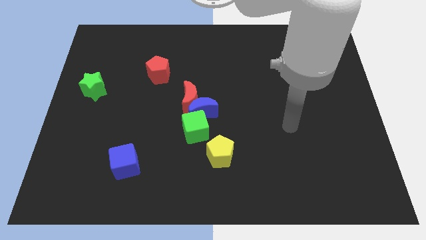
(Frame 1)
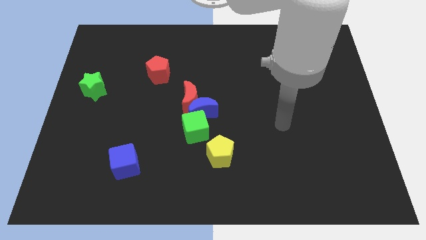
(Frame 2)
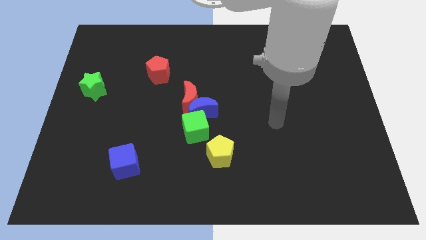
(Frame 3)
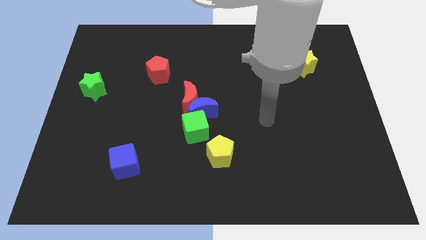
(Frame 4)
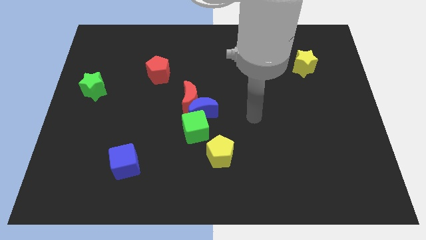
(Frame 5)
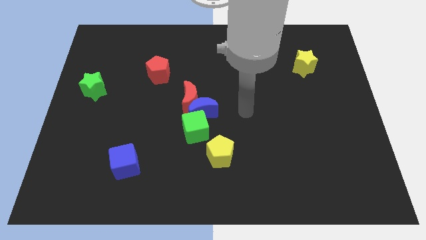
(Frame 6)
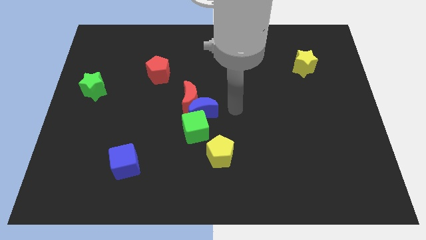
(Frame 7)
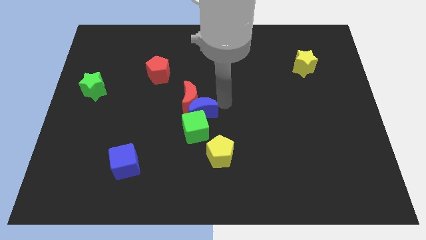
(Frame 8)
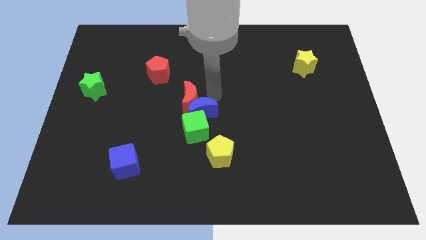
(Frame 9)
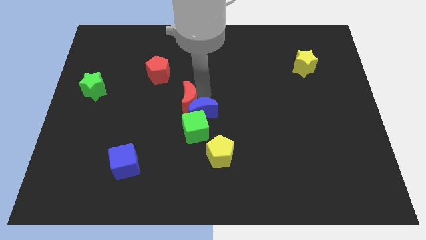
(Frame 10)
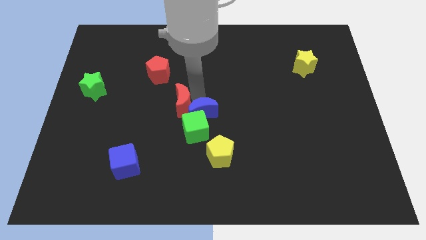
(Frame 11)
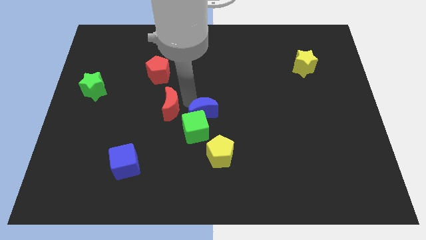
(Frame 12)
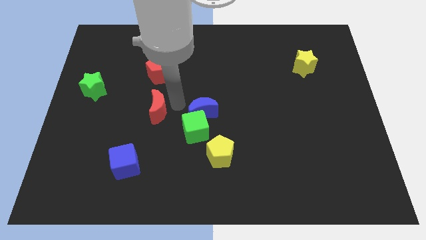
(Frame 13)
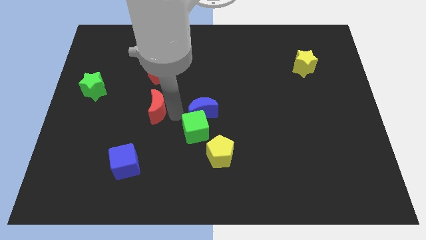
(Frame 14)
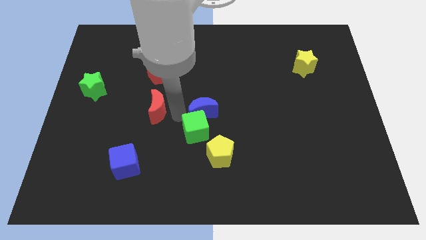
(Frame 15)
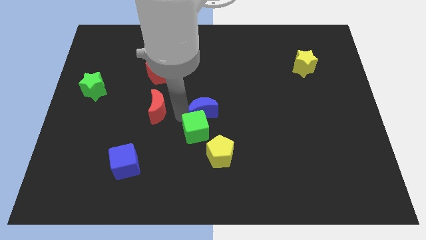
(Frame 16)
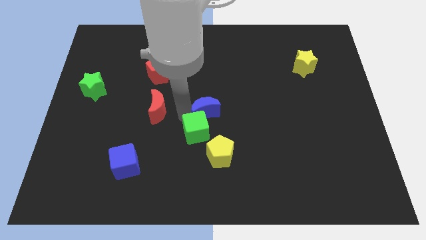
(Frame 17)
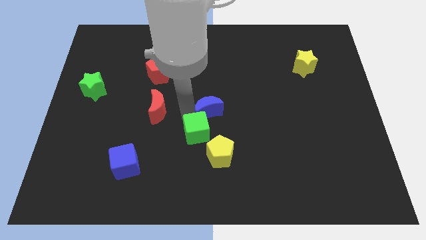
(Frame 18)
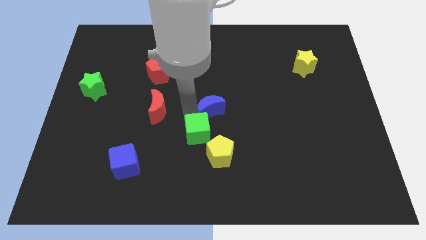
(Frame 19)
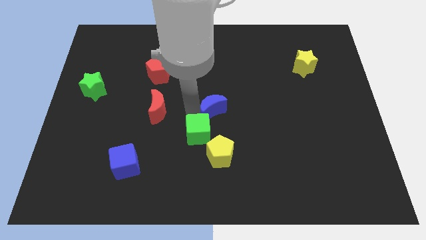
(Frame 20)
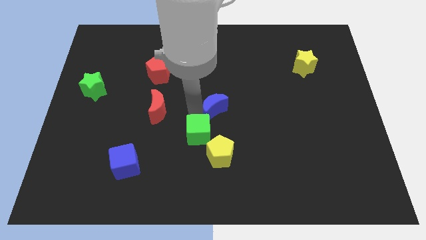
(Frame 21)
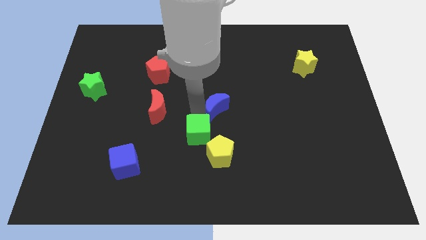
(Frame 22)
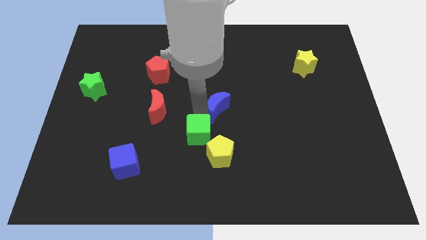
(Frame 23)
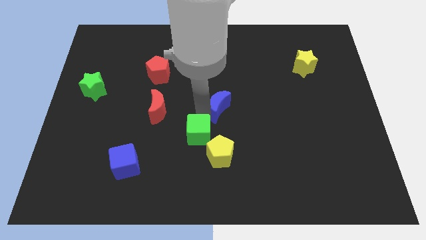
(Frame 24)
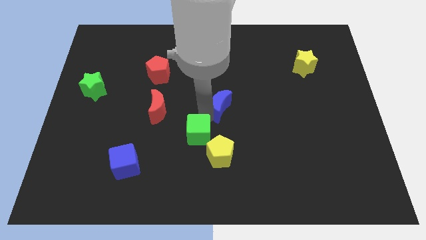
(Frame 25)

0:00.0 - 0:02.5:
pull the blue moon apart from the red moon and green cube

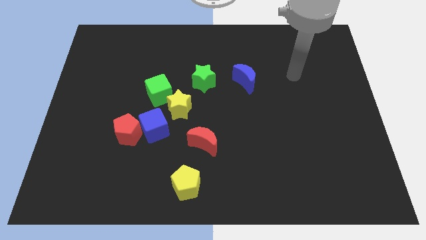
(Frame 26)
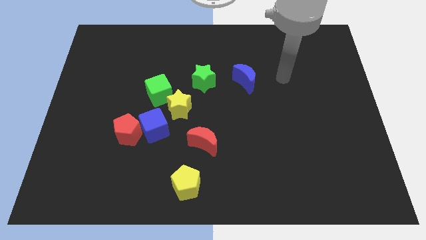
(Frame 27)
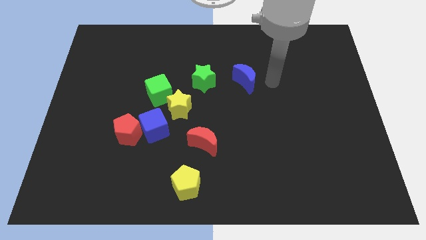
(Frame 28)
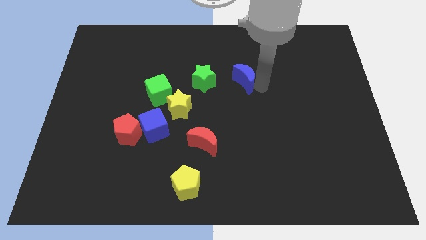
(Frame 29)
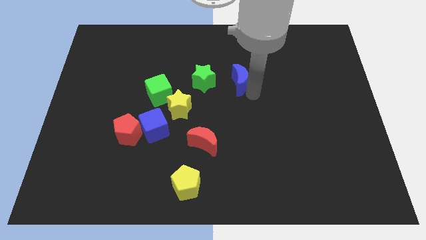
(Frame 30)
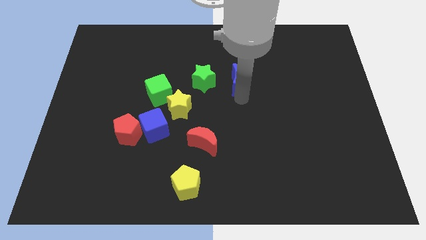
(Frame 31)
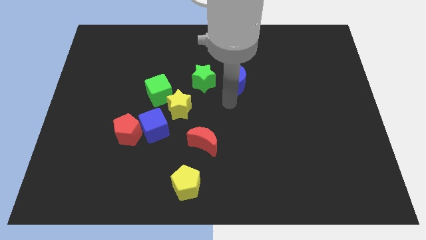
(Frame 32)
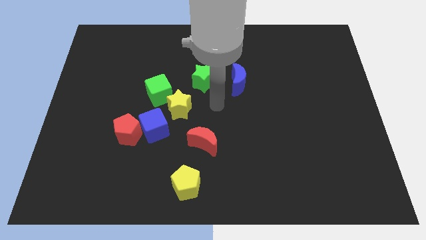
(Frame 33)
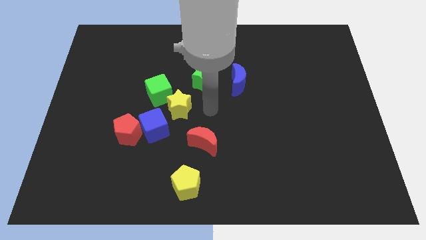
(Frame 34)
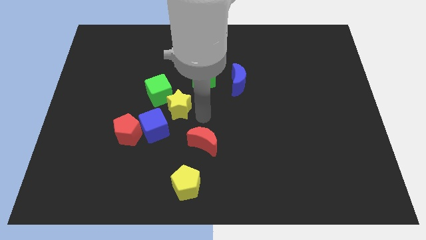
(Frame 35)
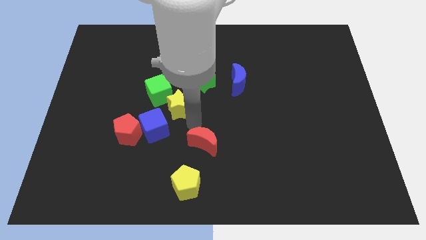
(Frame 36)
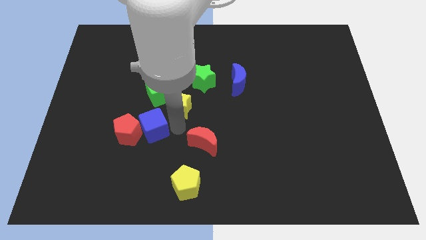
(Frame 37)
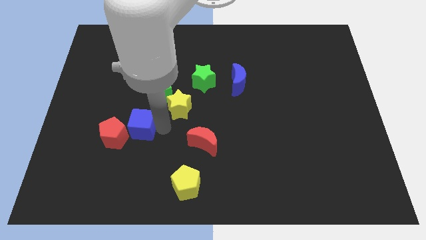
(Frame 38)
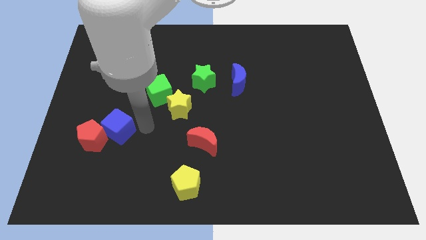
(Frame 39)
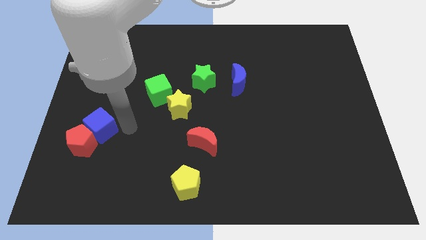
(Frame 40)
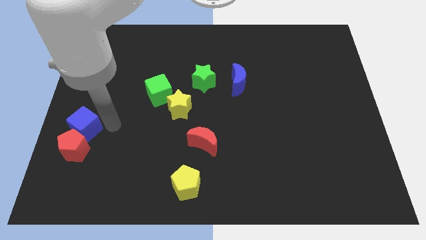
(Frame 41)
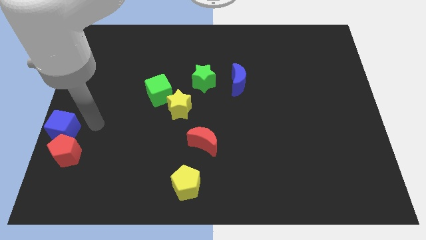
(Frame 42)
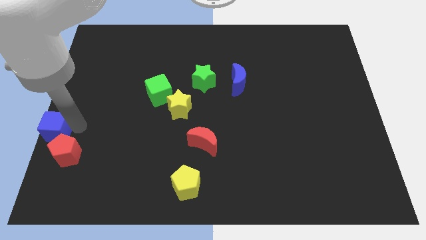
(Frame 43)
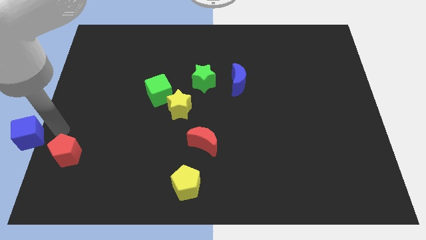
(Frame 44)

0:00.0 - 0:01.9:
separate the red pentagon from the blue cube

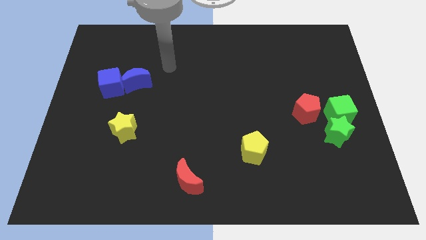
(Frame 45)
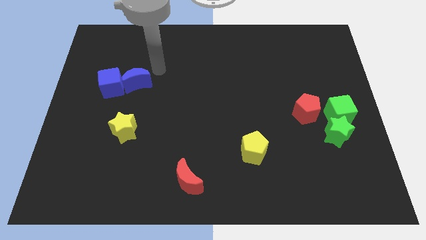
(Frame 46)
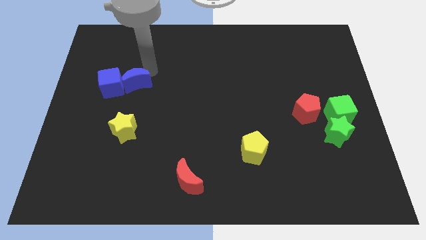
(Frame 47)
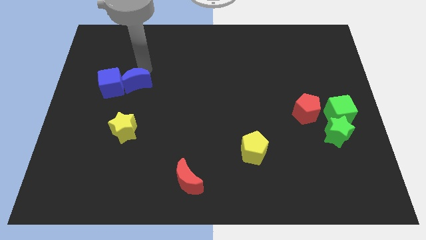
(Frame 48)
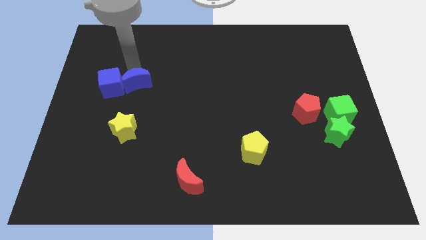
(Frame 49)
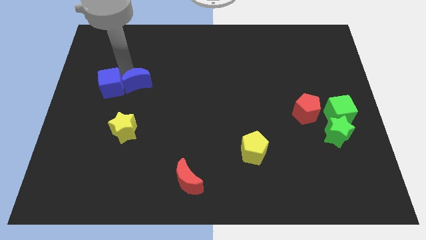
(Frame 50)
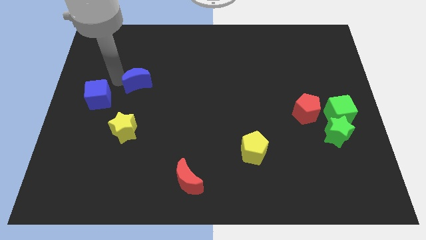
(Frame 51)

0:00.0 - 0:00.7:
move the blue moon away from the blue cube

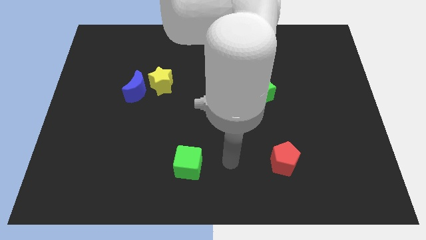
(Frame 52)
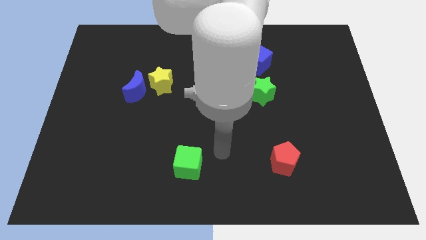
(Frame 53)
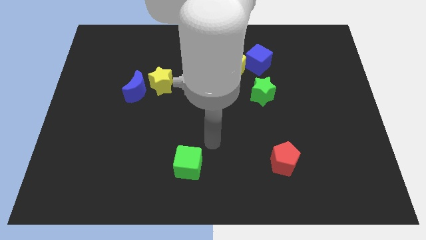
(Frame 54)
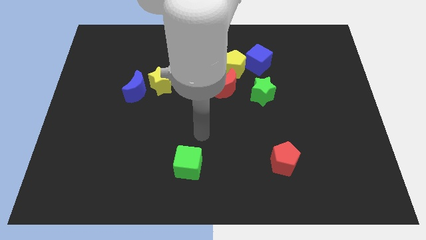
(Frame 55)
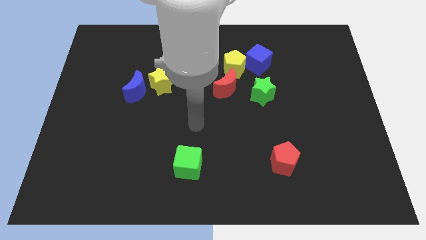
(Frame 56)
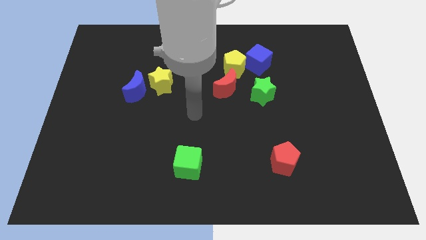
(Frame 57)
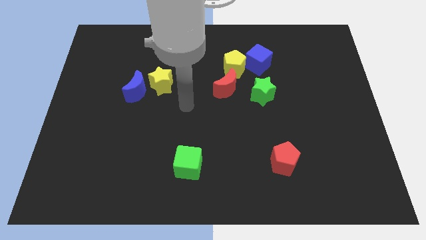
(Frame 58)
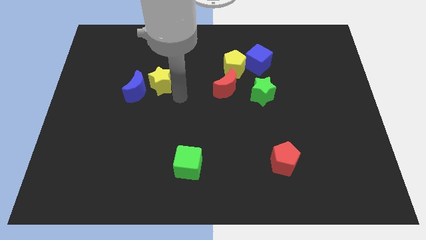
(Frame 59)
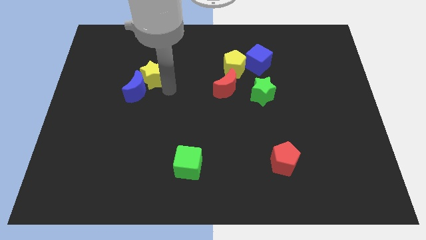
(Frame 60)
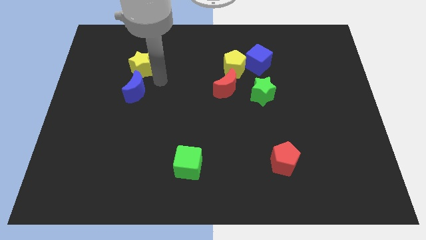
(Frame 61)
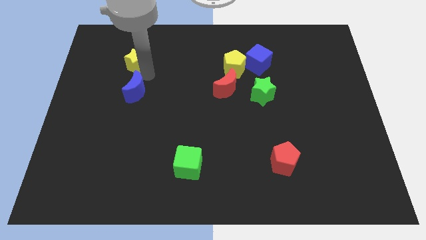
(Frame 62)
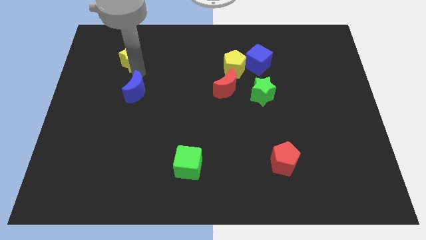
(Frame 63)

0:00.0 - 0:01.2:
pull the blue moon apart from the yellow star

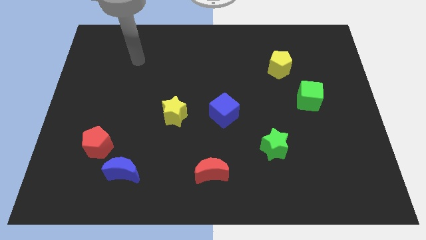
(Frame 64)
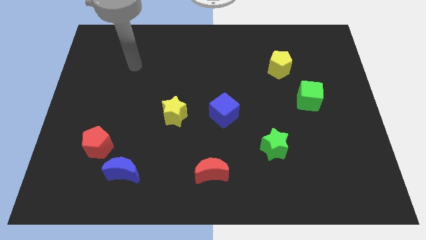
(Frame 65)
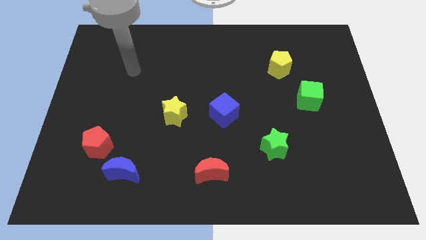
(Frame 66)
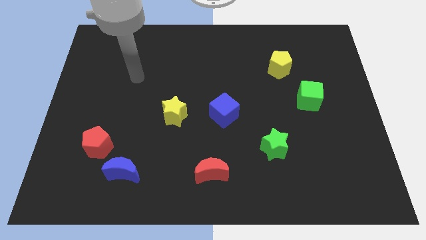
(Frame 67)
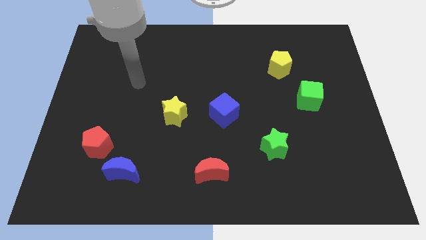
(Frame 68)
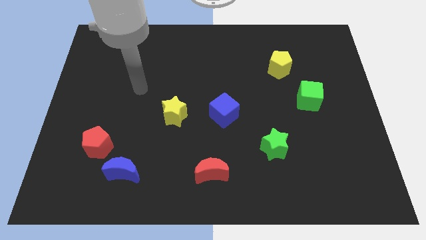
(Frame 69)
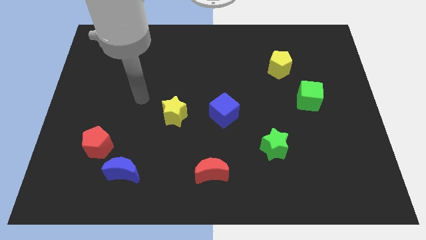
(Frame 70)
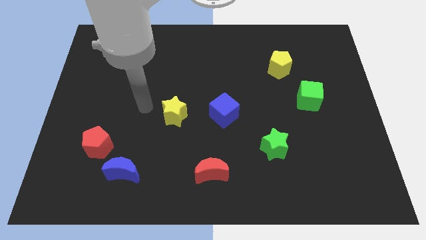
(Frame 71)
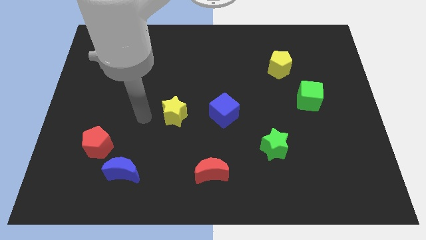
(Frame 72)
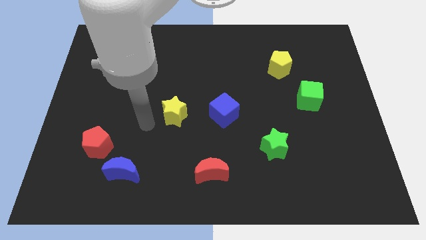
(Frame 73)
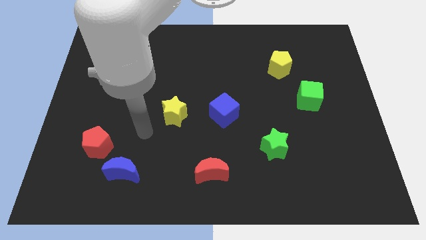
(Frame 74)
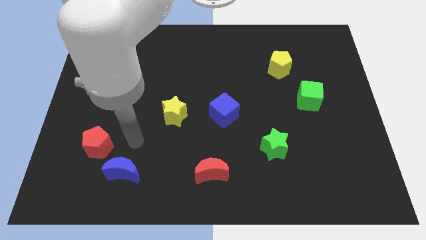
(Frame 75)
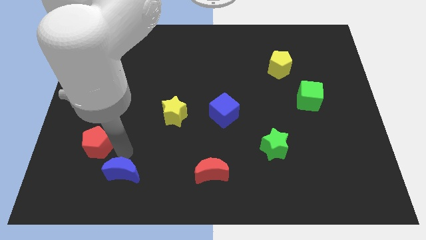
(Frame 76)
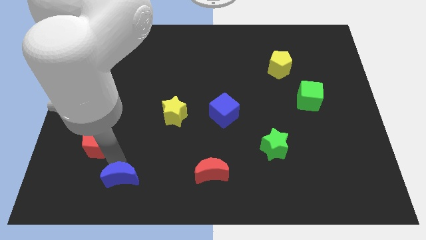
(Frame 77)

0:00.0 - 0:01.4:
separate the red pentagon from the blue moon

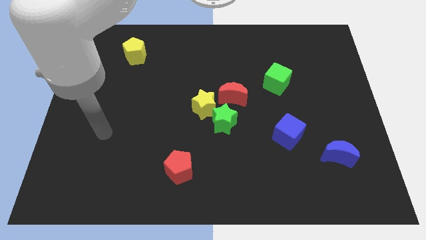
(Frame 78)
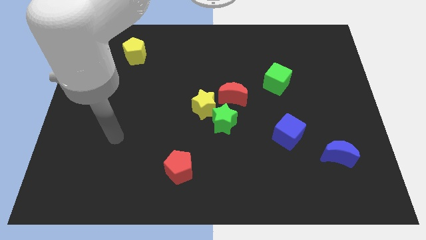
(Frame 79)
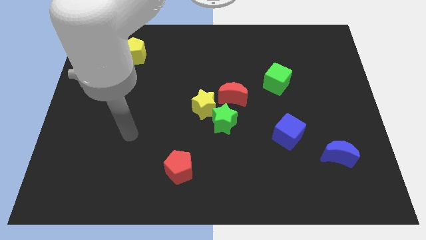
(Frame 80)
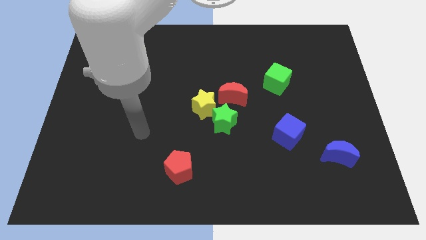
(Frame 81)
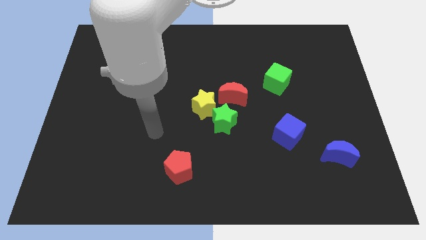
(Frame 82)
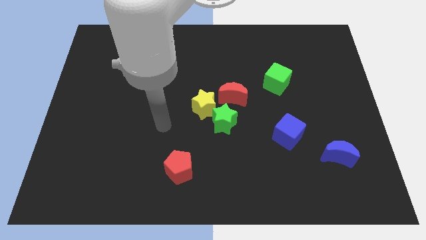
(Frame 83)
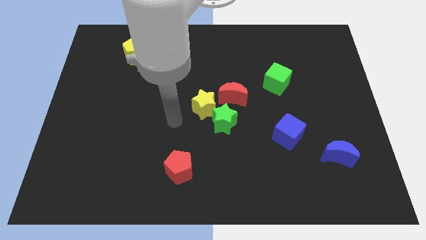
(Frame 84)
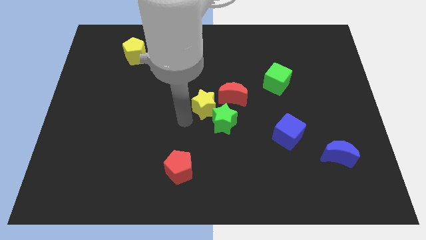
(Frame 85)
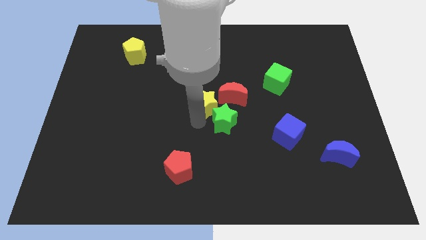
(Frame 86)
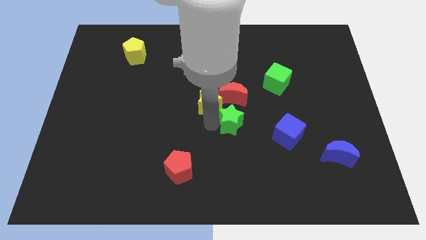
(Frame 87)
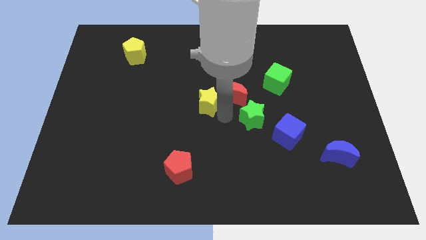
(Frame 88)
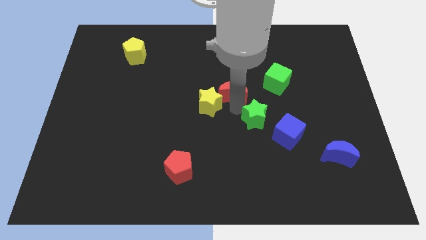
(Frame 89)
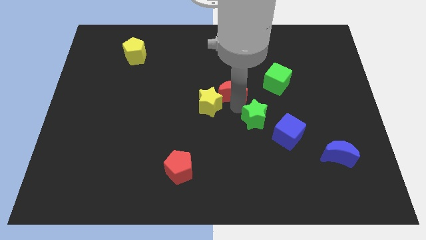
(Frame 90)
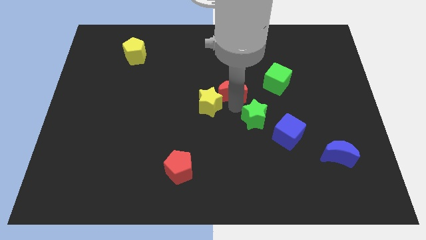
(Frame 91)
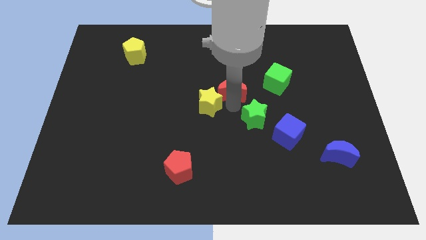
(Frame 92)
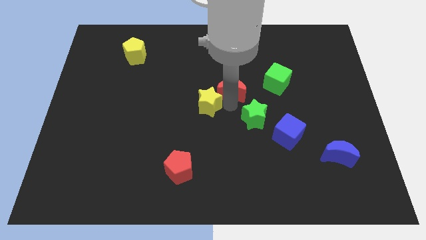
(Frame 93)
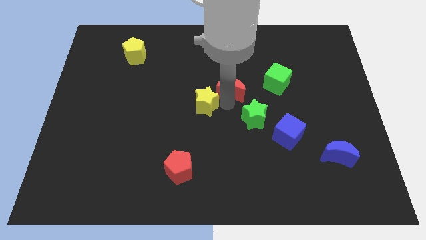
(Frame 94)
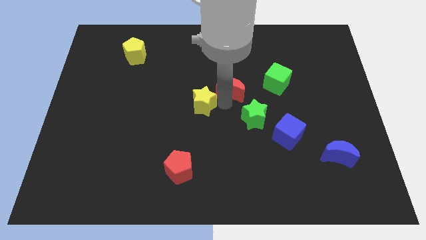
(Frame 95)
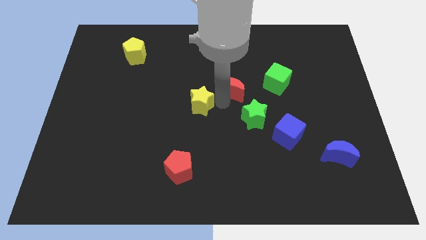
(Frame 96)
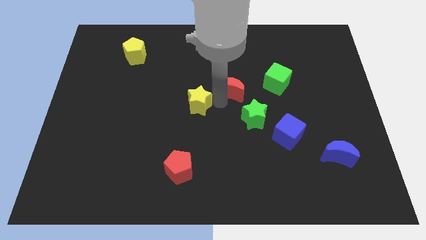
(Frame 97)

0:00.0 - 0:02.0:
move the yellow star away from the green star and red moon
